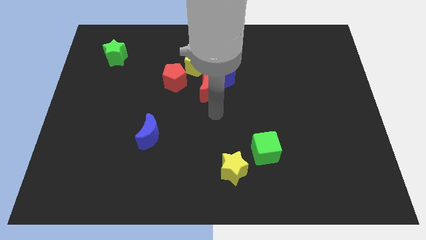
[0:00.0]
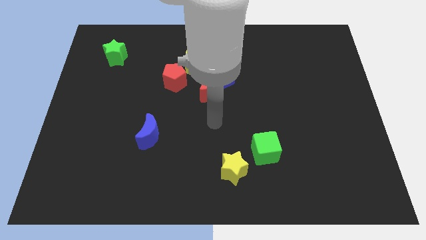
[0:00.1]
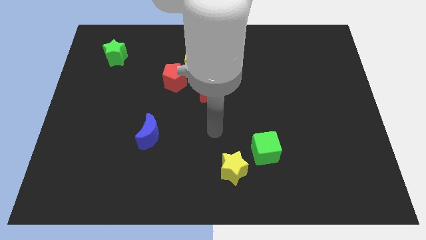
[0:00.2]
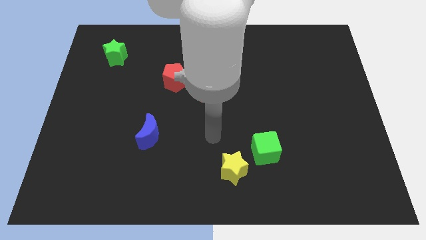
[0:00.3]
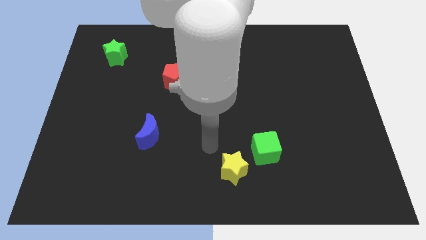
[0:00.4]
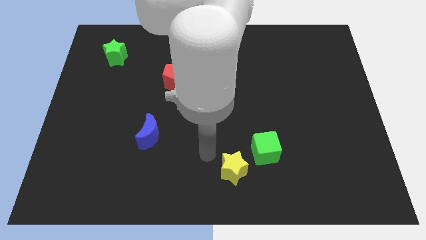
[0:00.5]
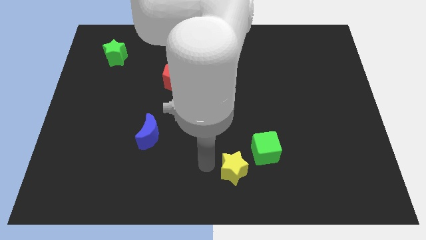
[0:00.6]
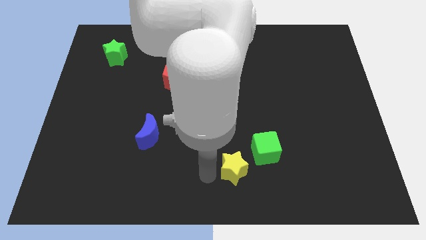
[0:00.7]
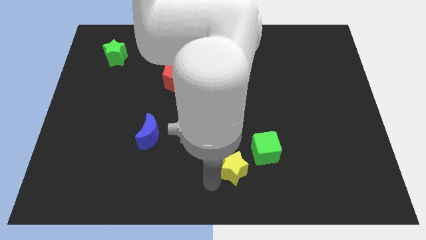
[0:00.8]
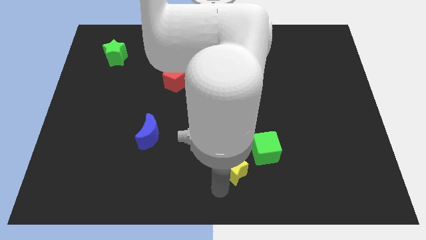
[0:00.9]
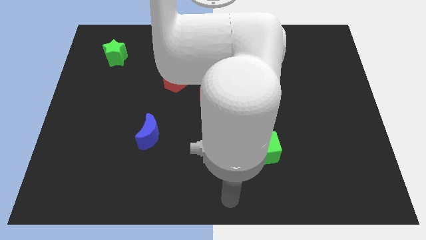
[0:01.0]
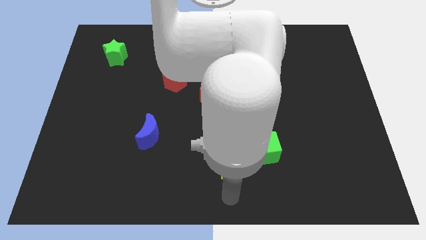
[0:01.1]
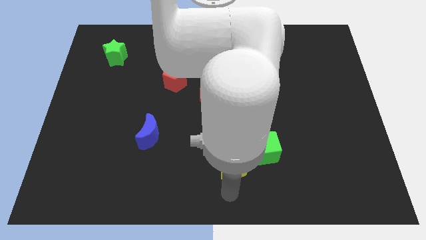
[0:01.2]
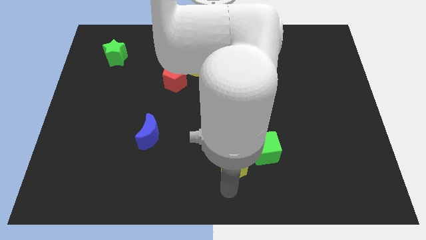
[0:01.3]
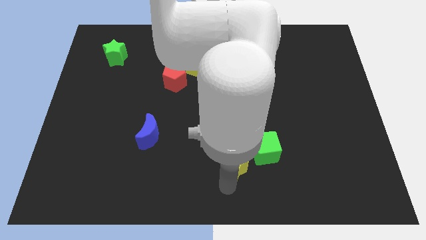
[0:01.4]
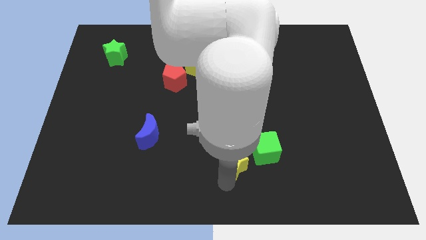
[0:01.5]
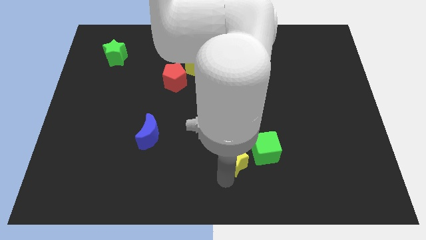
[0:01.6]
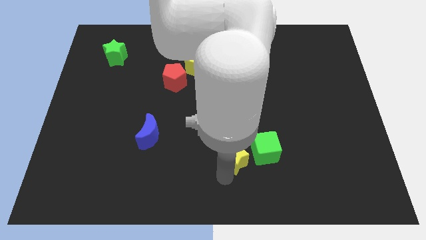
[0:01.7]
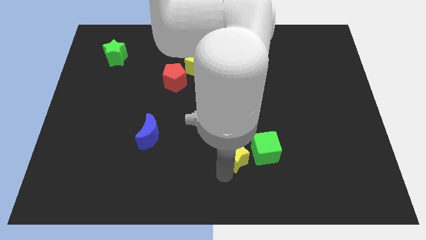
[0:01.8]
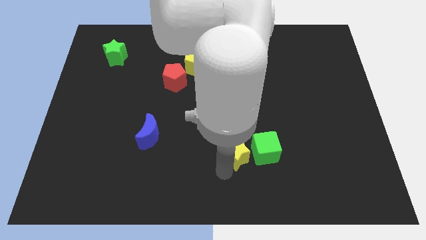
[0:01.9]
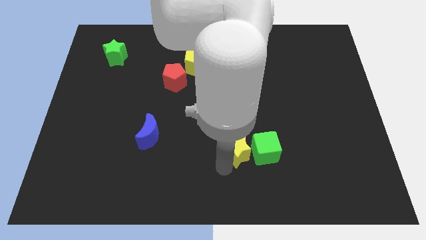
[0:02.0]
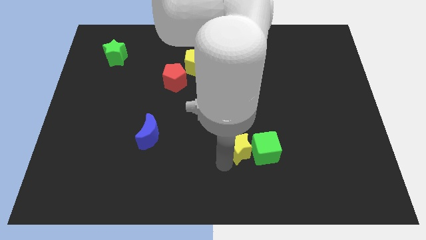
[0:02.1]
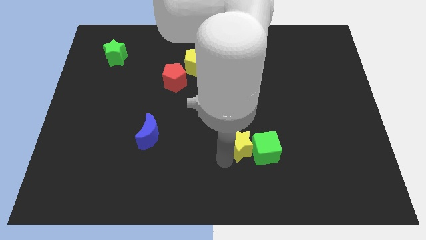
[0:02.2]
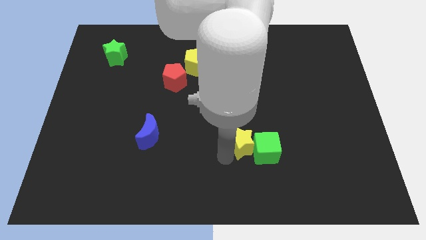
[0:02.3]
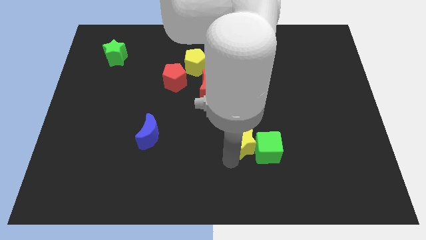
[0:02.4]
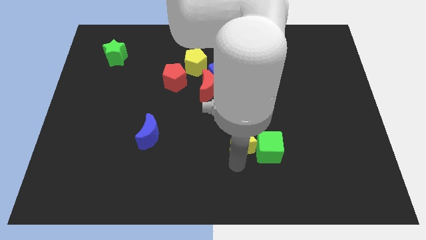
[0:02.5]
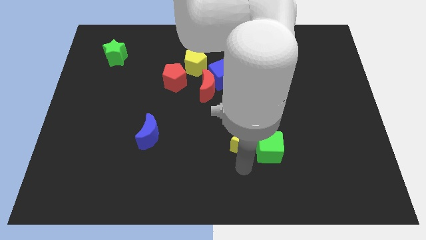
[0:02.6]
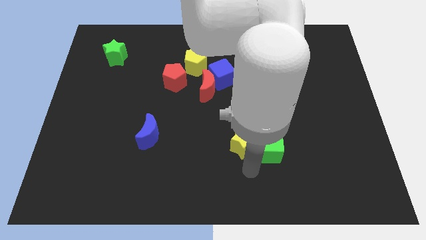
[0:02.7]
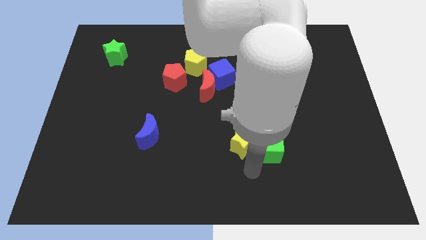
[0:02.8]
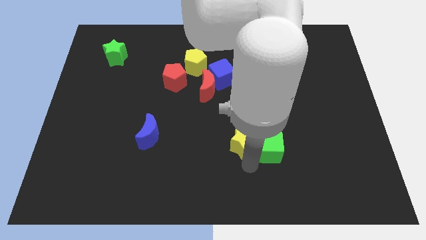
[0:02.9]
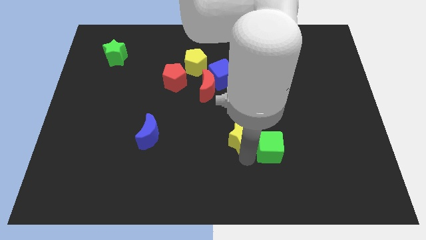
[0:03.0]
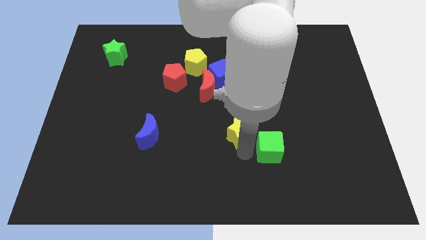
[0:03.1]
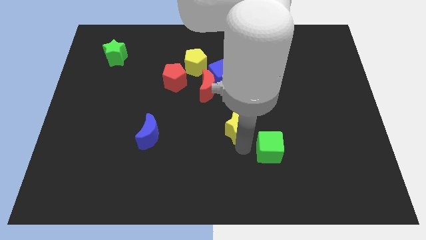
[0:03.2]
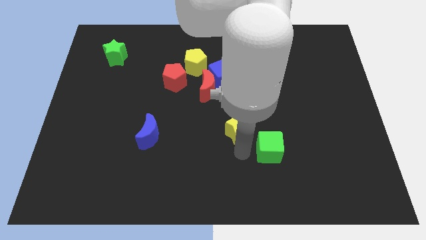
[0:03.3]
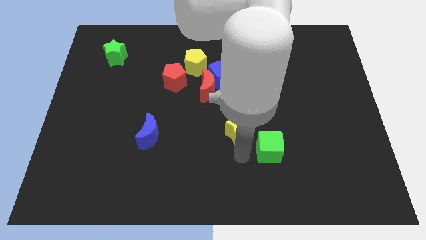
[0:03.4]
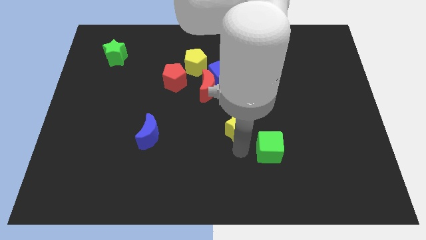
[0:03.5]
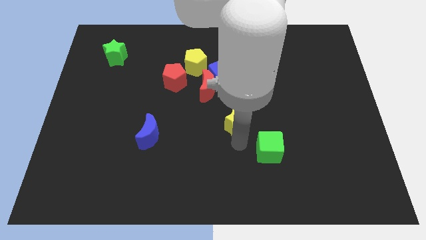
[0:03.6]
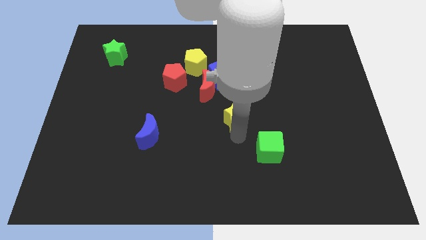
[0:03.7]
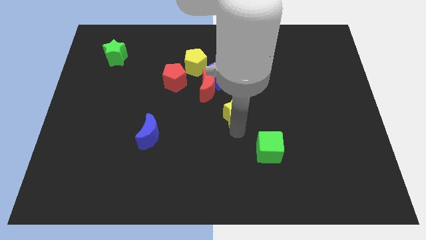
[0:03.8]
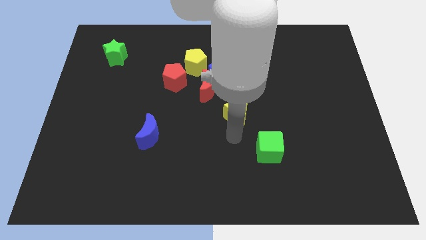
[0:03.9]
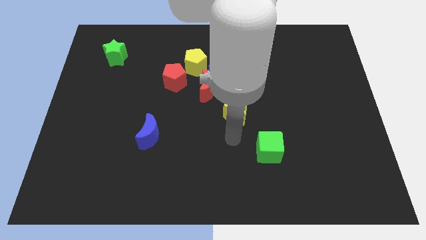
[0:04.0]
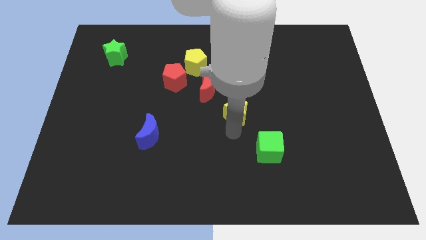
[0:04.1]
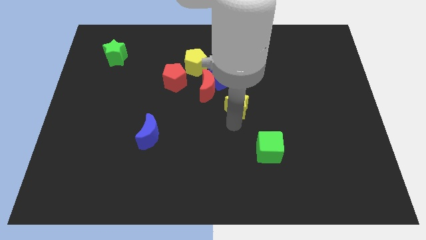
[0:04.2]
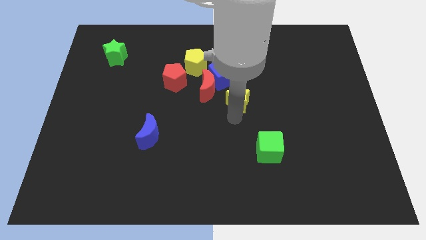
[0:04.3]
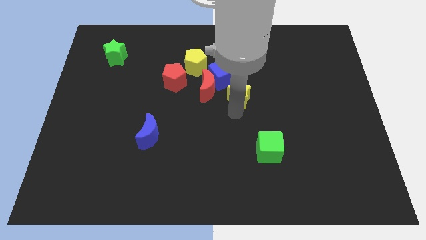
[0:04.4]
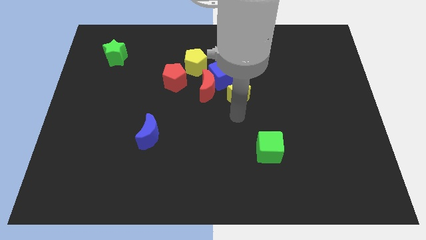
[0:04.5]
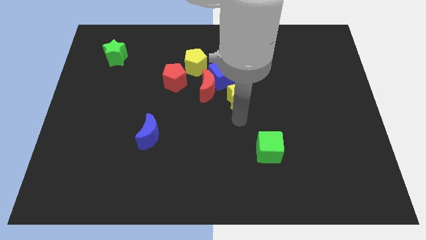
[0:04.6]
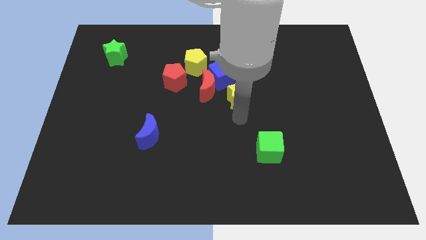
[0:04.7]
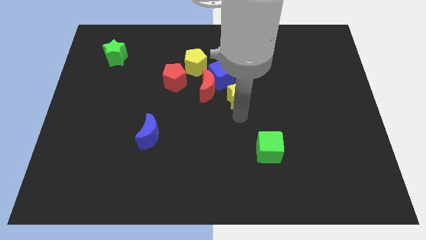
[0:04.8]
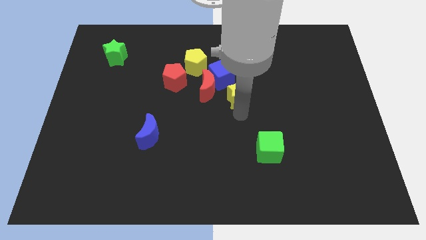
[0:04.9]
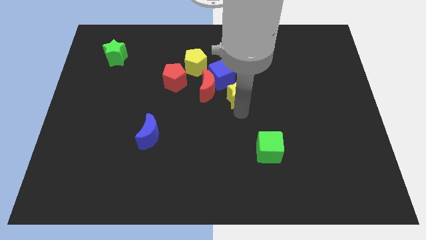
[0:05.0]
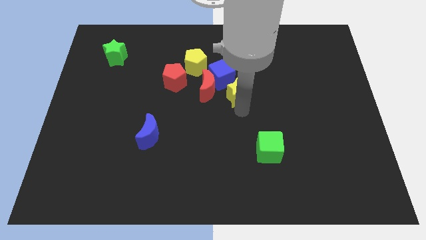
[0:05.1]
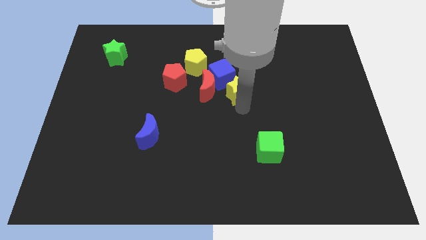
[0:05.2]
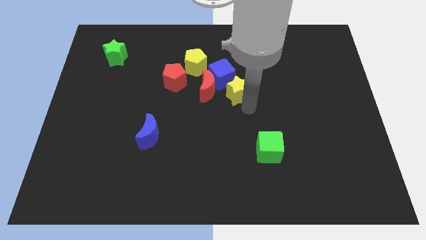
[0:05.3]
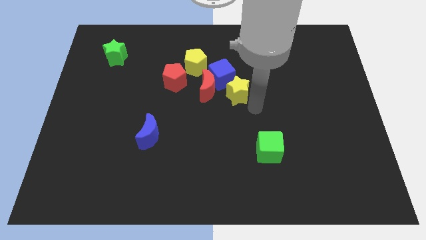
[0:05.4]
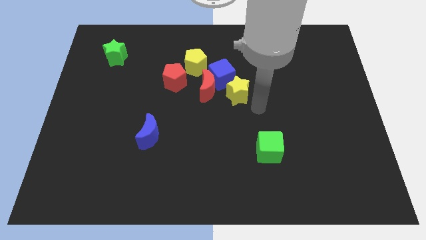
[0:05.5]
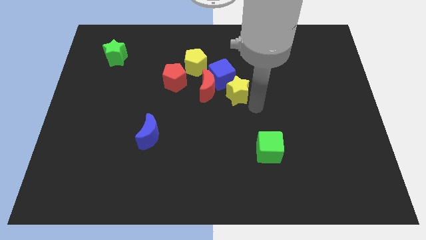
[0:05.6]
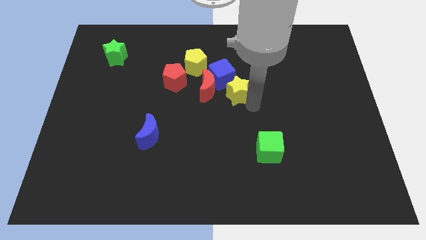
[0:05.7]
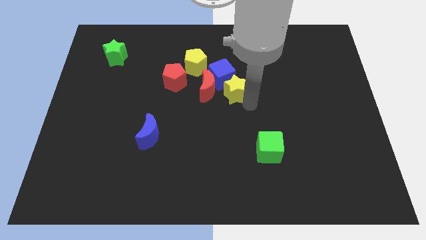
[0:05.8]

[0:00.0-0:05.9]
put the yellow star to the right of the red pentagon

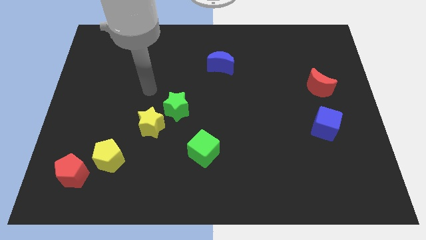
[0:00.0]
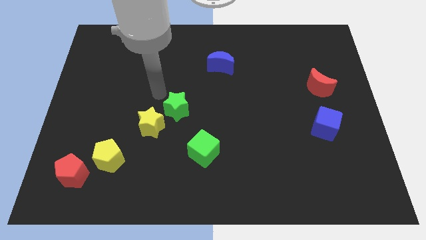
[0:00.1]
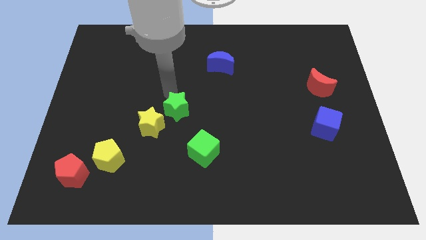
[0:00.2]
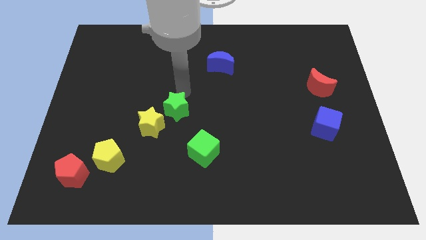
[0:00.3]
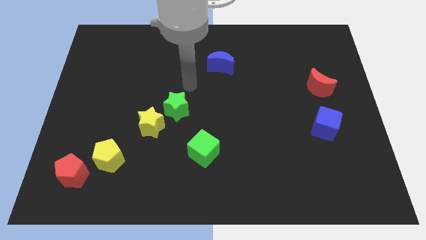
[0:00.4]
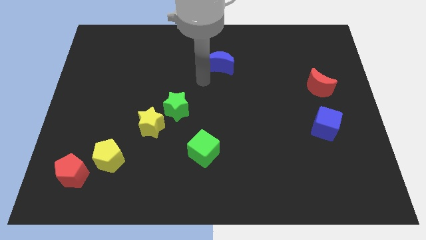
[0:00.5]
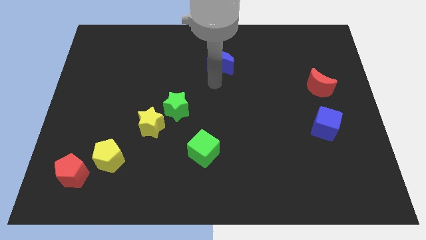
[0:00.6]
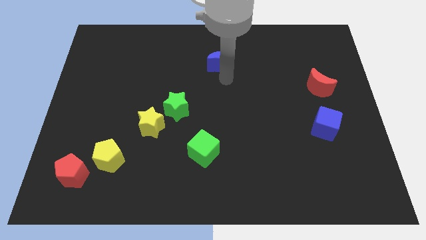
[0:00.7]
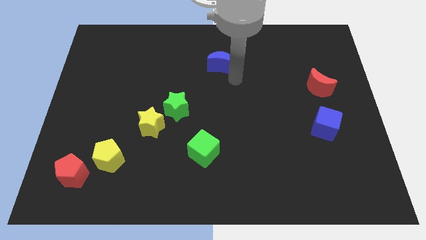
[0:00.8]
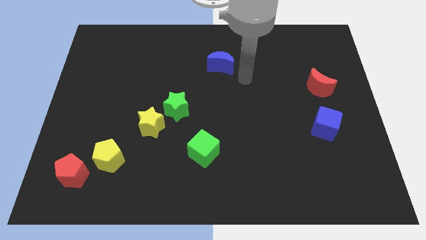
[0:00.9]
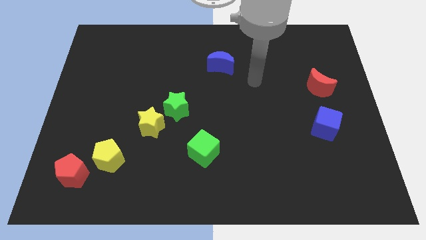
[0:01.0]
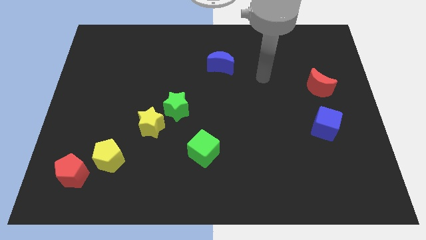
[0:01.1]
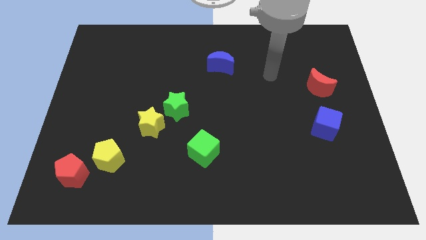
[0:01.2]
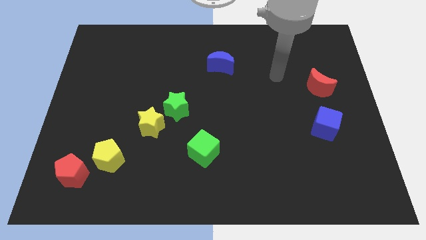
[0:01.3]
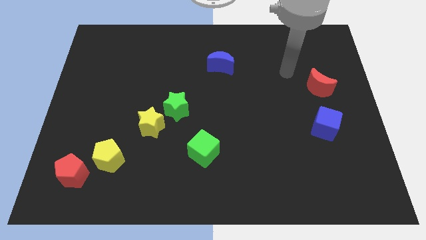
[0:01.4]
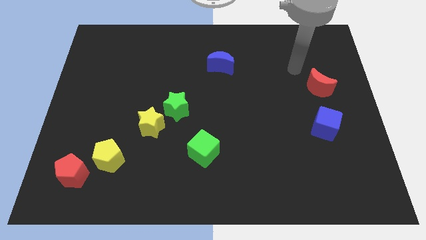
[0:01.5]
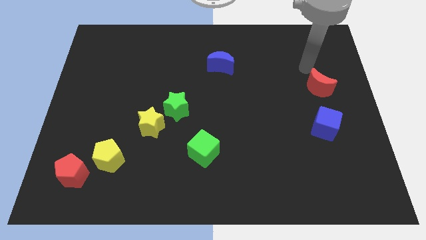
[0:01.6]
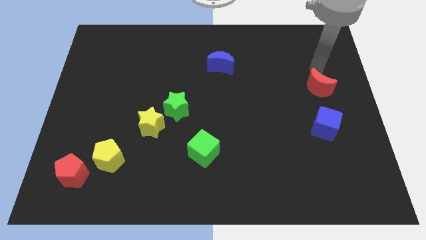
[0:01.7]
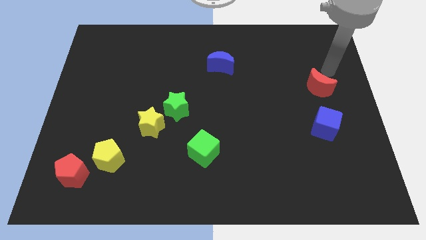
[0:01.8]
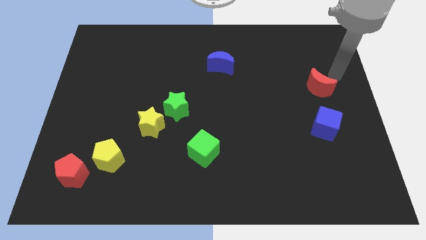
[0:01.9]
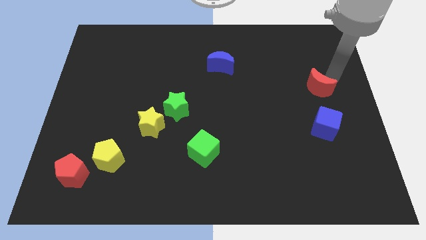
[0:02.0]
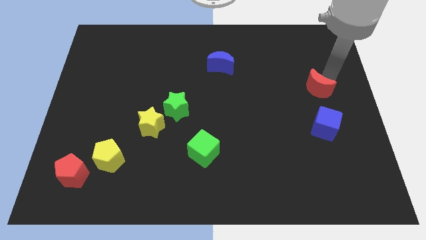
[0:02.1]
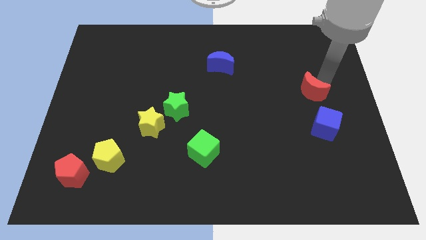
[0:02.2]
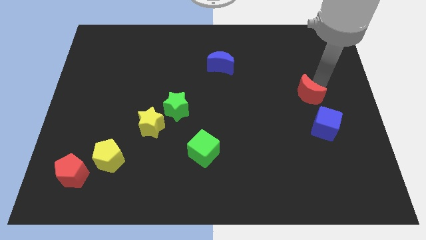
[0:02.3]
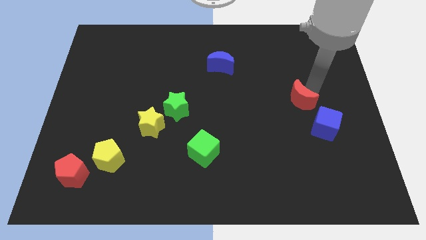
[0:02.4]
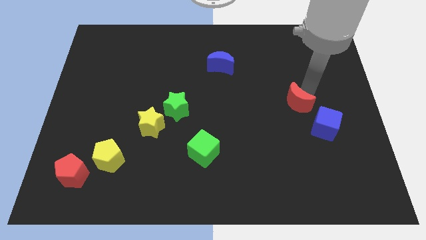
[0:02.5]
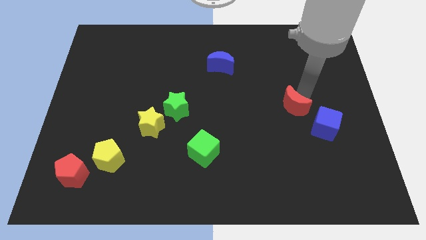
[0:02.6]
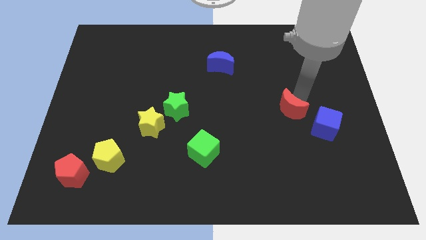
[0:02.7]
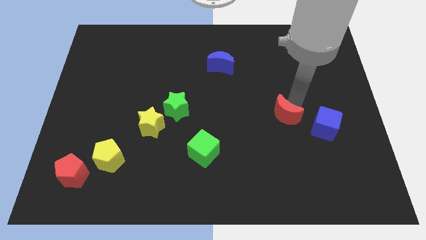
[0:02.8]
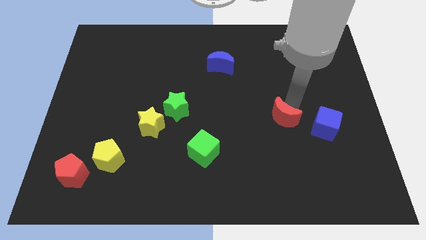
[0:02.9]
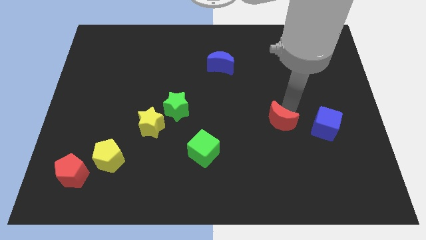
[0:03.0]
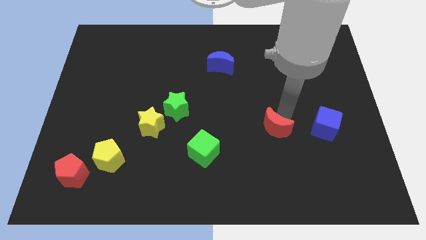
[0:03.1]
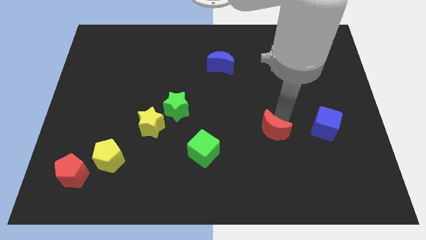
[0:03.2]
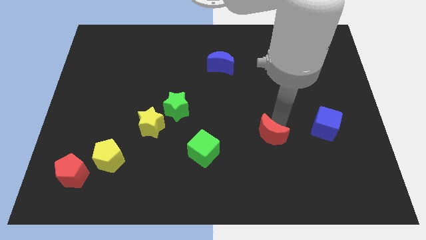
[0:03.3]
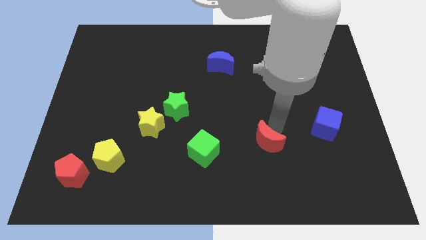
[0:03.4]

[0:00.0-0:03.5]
slide the red moon to the right of the green cube
